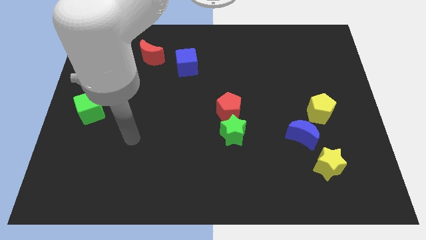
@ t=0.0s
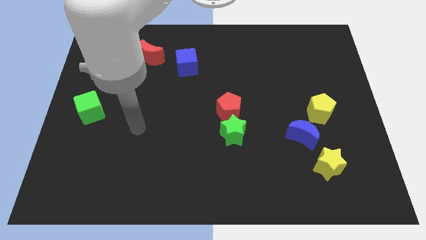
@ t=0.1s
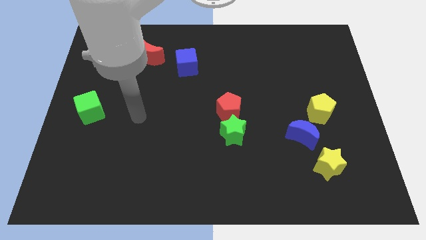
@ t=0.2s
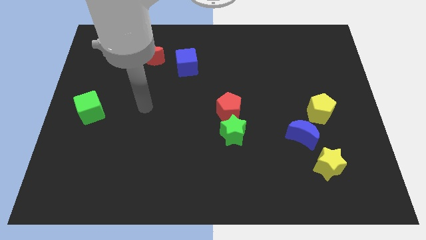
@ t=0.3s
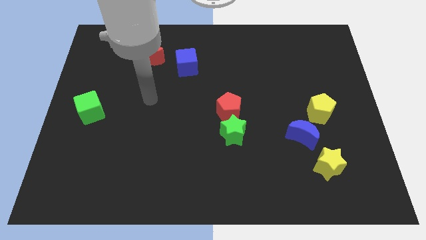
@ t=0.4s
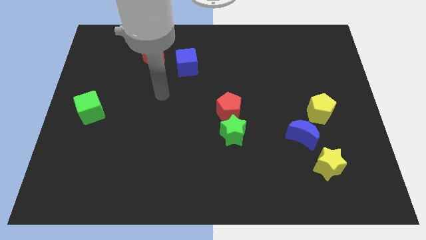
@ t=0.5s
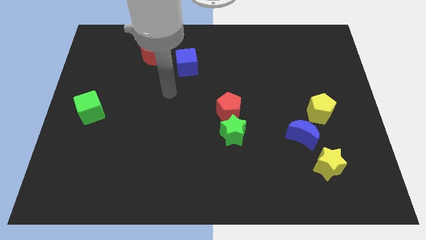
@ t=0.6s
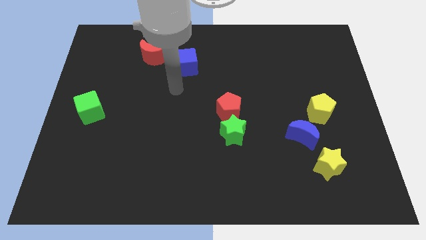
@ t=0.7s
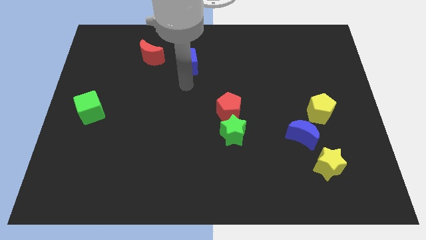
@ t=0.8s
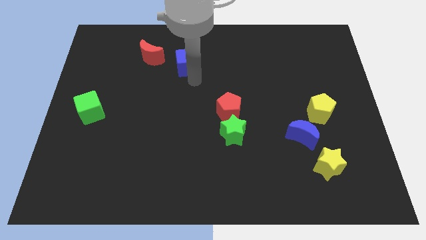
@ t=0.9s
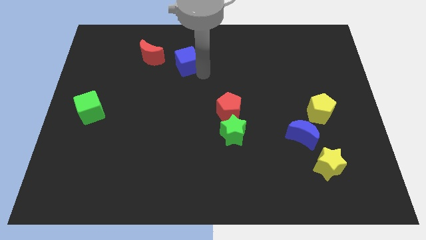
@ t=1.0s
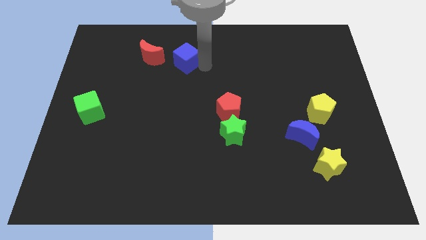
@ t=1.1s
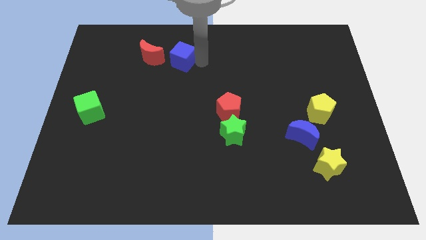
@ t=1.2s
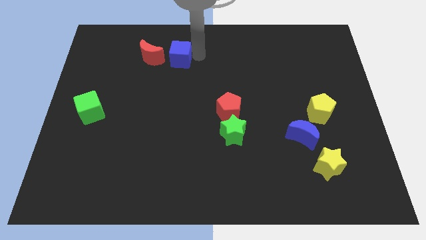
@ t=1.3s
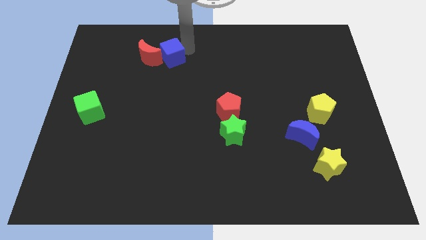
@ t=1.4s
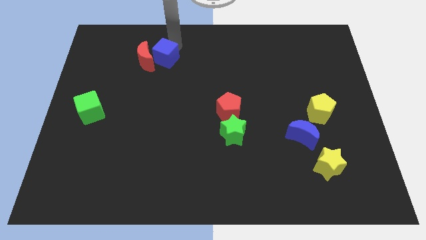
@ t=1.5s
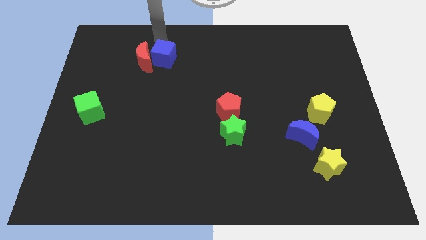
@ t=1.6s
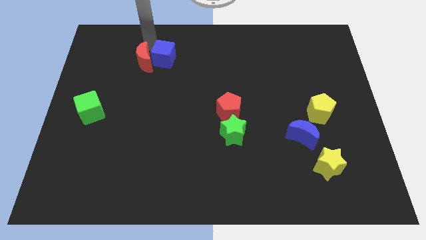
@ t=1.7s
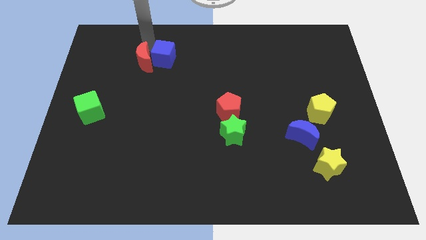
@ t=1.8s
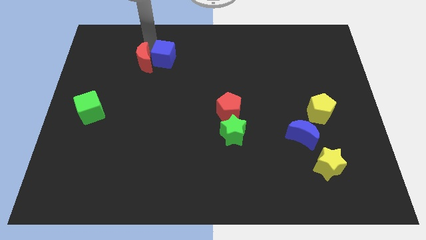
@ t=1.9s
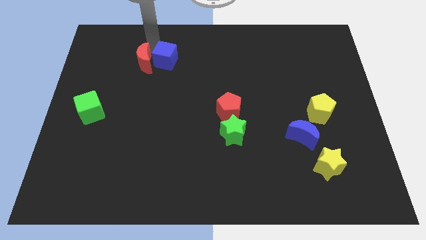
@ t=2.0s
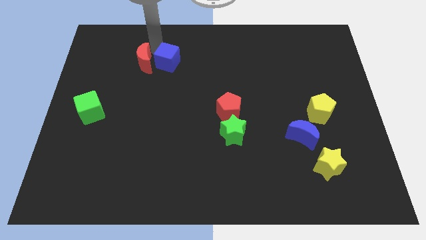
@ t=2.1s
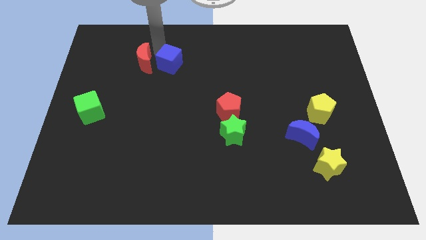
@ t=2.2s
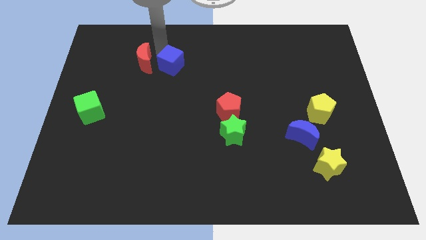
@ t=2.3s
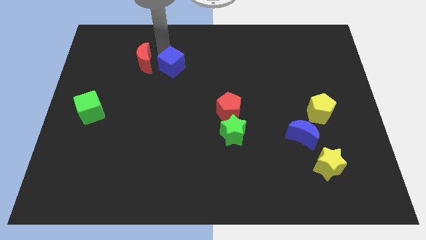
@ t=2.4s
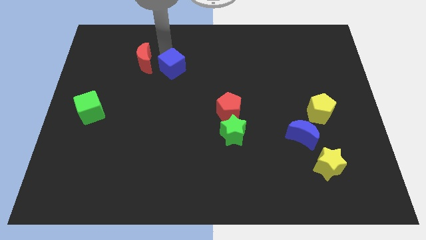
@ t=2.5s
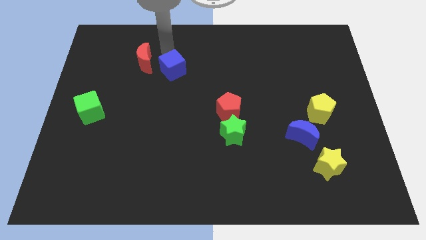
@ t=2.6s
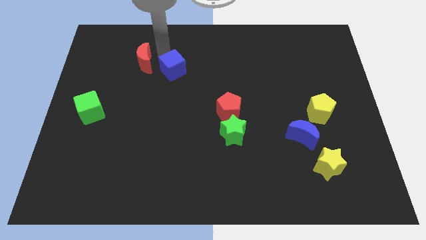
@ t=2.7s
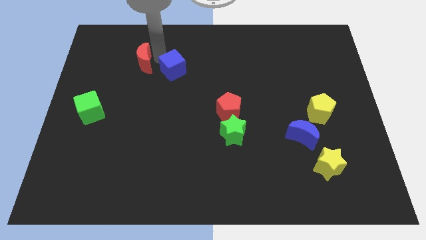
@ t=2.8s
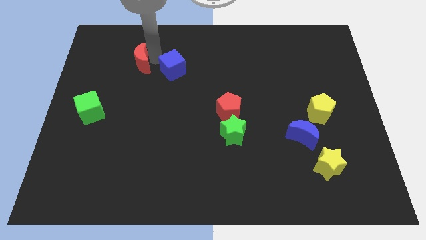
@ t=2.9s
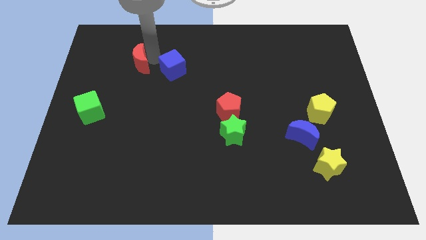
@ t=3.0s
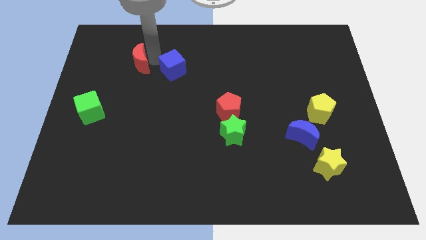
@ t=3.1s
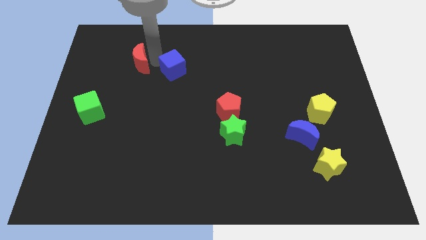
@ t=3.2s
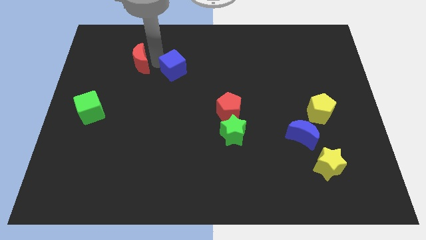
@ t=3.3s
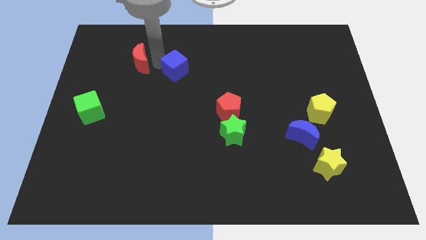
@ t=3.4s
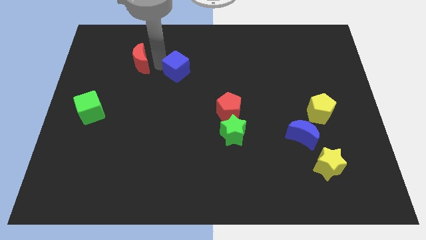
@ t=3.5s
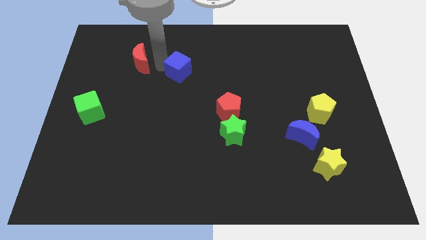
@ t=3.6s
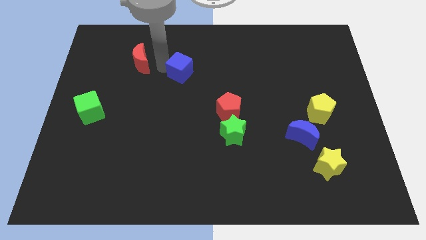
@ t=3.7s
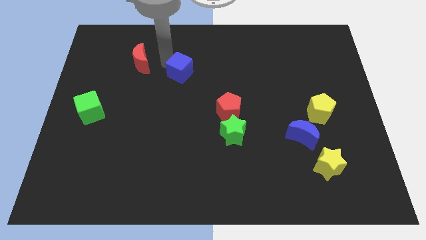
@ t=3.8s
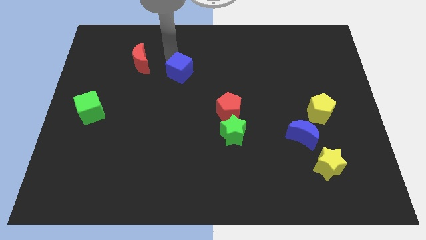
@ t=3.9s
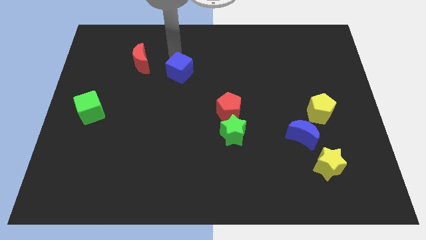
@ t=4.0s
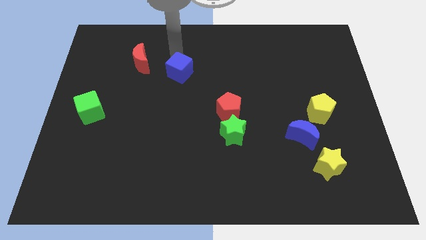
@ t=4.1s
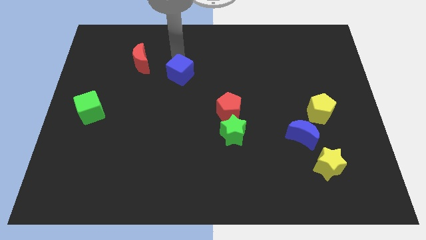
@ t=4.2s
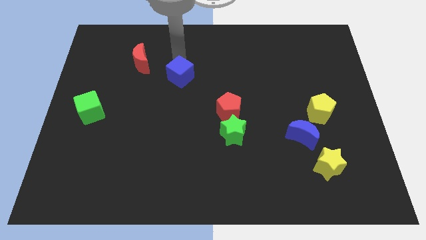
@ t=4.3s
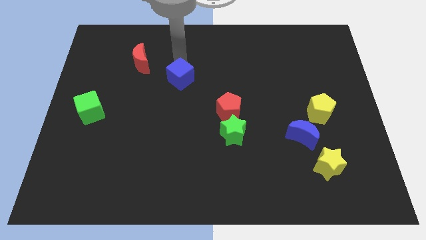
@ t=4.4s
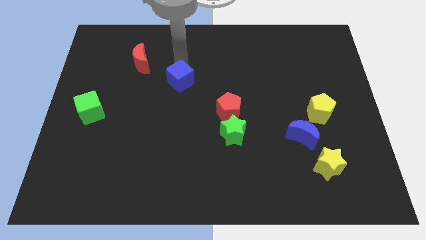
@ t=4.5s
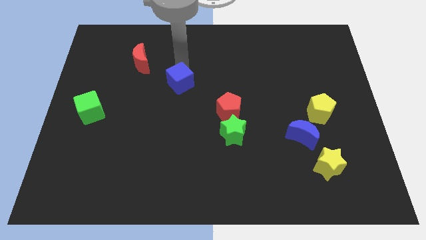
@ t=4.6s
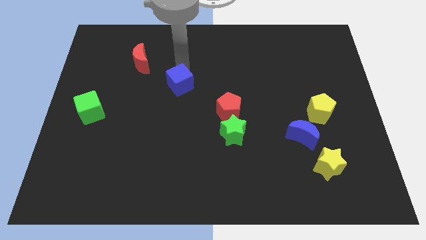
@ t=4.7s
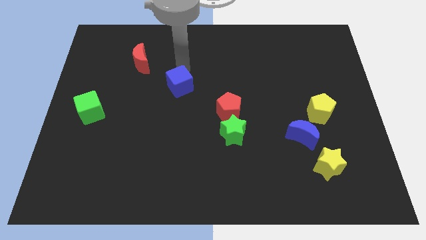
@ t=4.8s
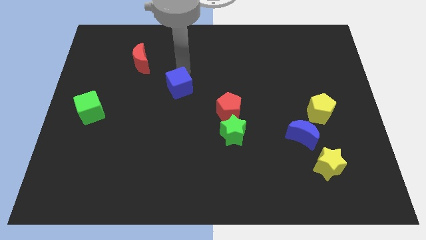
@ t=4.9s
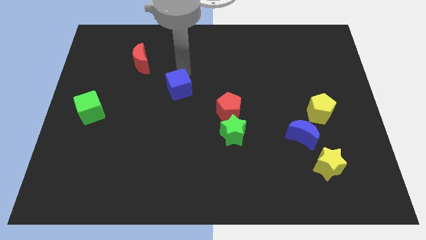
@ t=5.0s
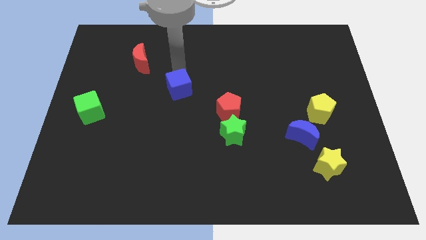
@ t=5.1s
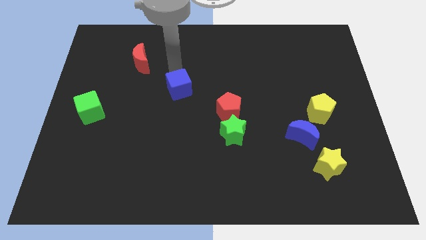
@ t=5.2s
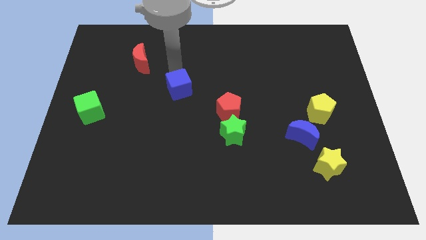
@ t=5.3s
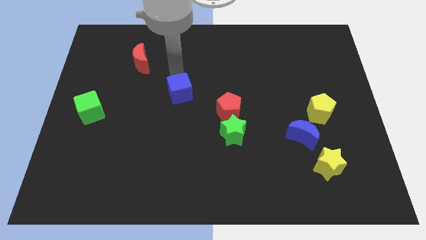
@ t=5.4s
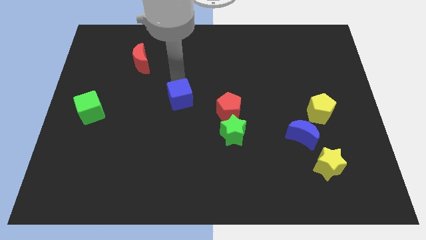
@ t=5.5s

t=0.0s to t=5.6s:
put the blue cube just left of the red pentagon

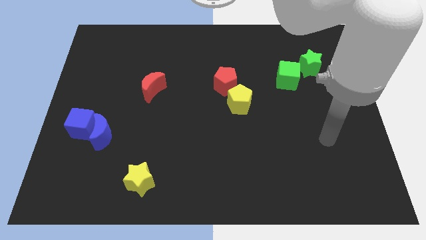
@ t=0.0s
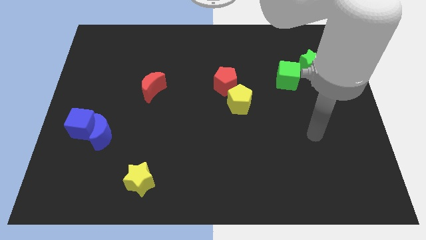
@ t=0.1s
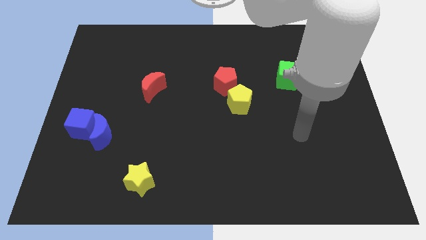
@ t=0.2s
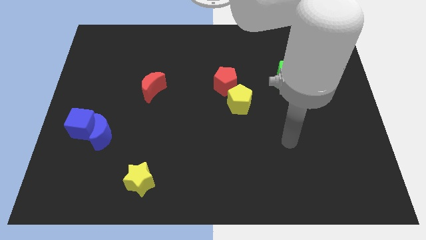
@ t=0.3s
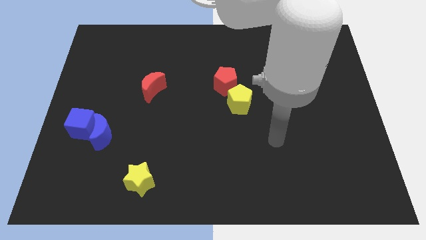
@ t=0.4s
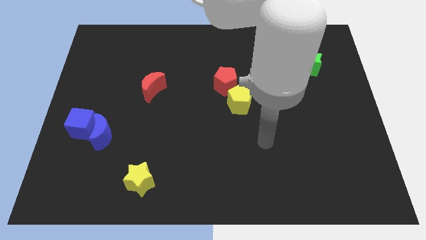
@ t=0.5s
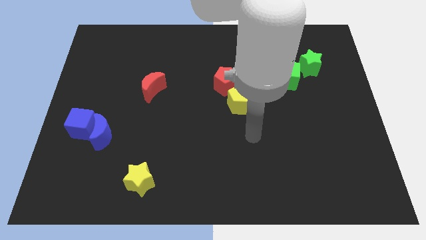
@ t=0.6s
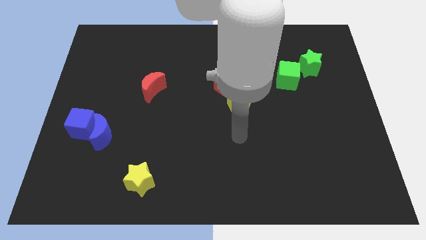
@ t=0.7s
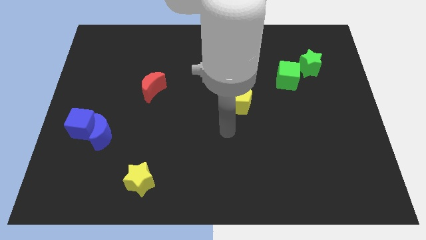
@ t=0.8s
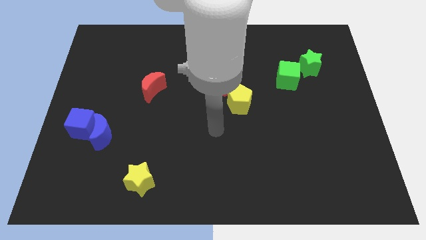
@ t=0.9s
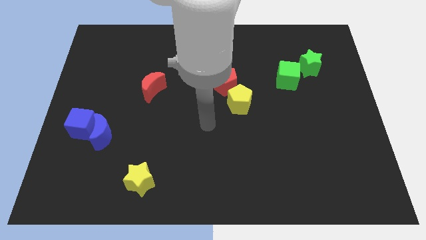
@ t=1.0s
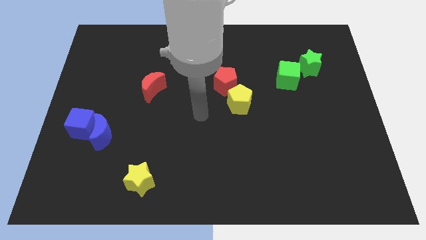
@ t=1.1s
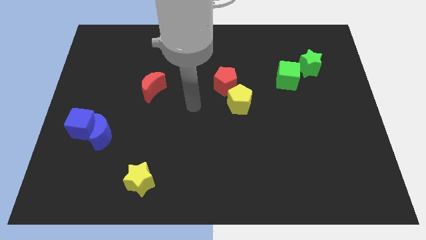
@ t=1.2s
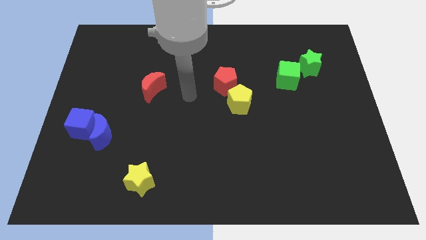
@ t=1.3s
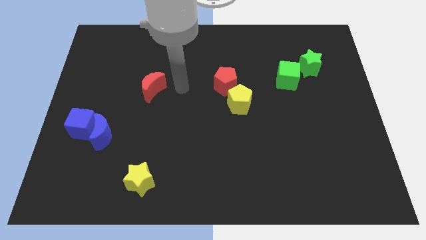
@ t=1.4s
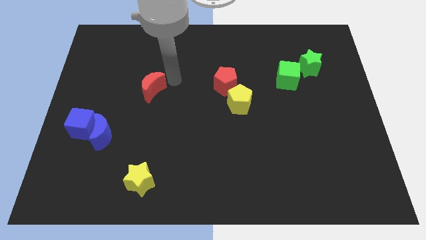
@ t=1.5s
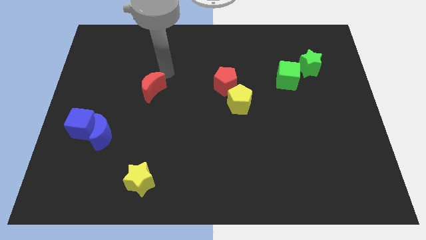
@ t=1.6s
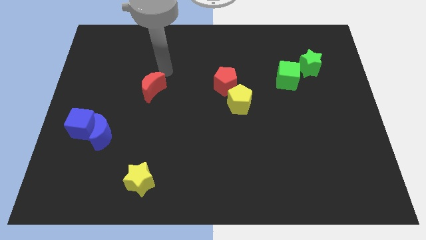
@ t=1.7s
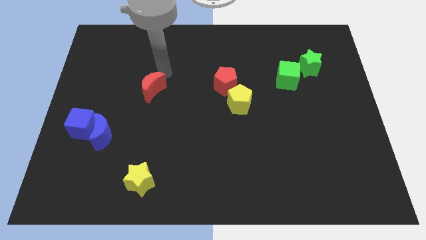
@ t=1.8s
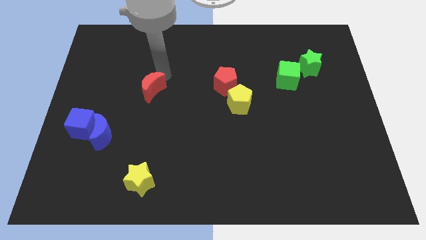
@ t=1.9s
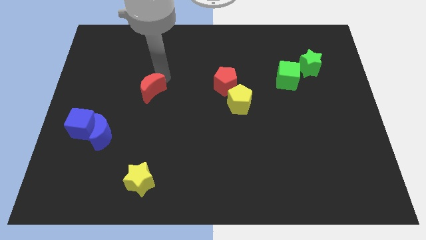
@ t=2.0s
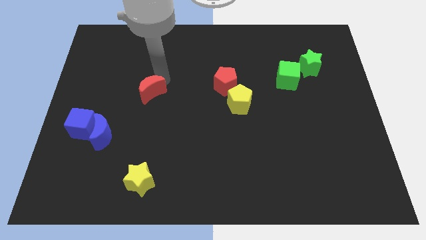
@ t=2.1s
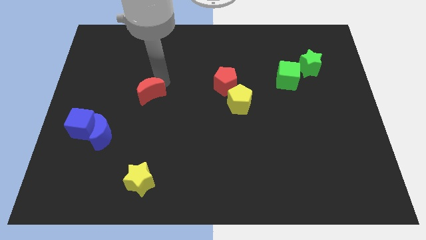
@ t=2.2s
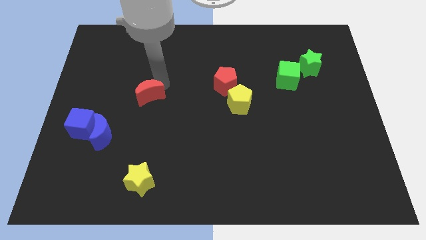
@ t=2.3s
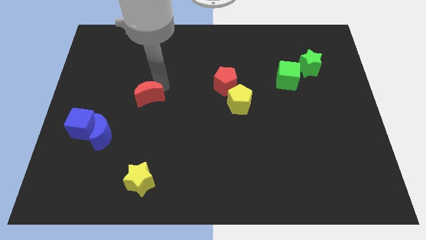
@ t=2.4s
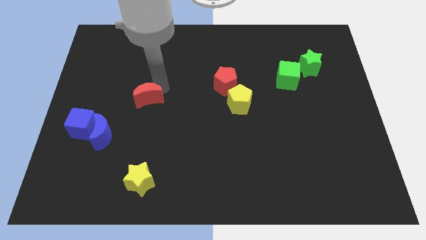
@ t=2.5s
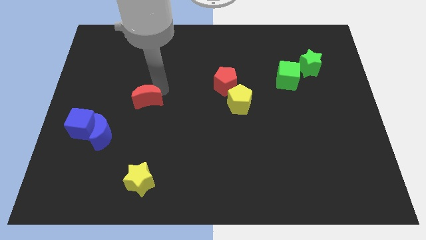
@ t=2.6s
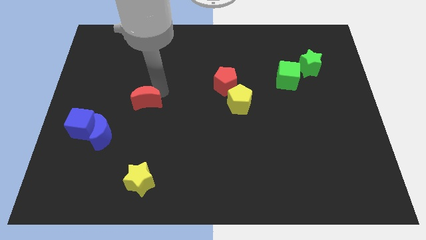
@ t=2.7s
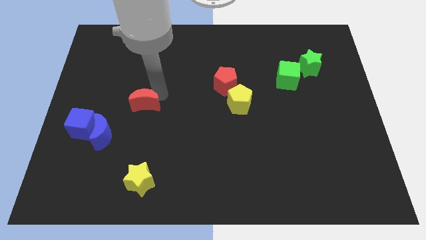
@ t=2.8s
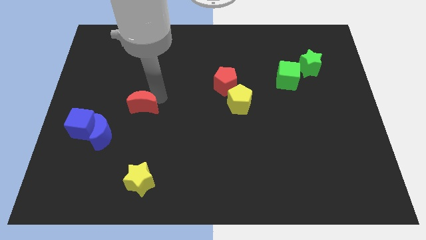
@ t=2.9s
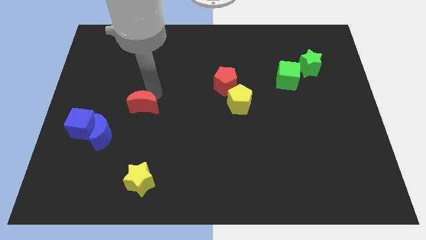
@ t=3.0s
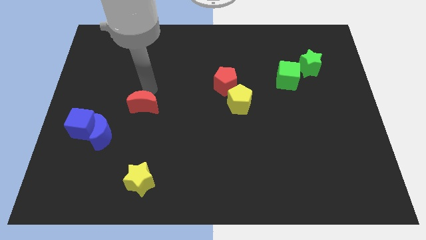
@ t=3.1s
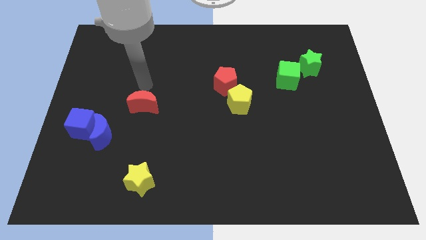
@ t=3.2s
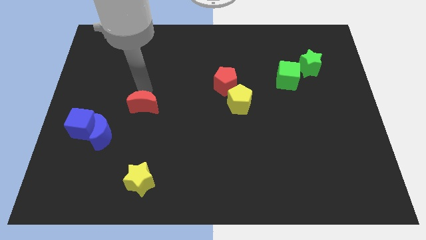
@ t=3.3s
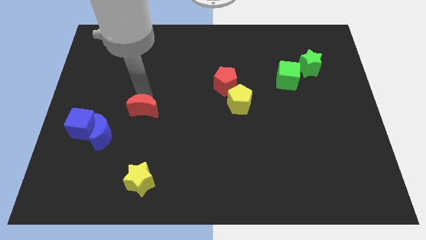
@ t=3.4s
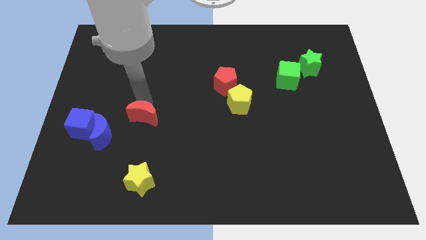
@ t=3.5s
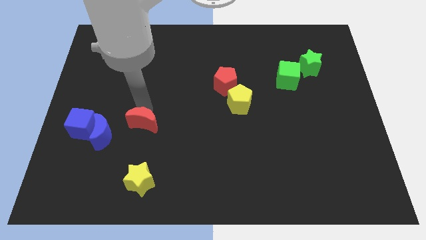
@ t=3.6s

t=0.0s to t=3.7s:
push the red moon to the top side of the yellow star
